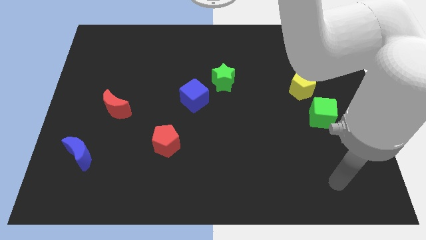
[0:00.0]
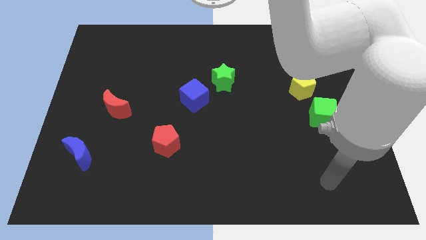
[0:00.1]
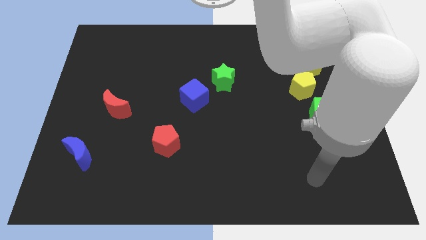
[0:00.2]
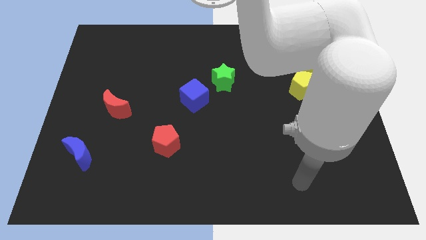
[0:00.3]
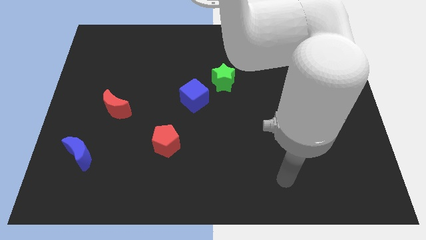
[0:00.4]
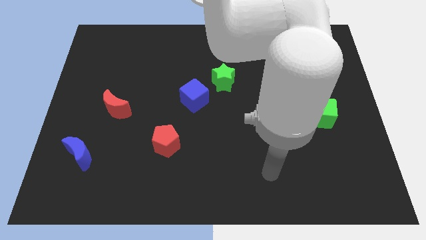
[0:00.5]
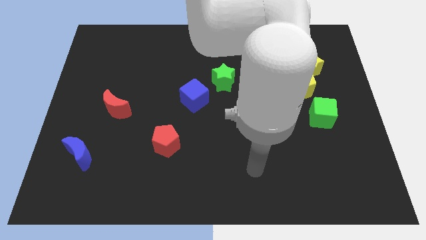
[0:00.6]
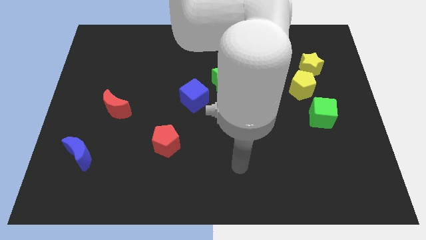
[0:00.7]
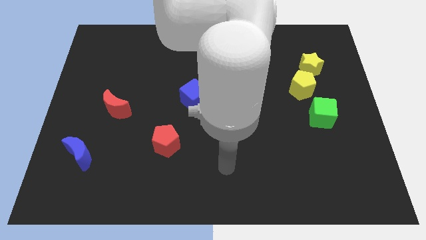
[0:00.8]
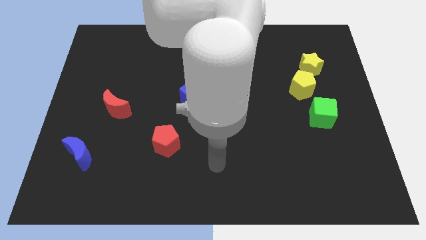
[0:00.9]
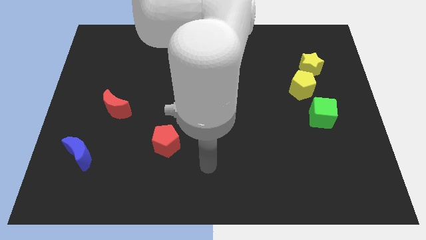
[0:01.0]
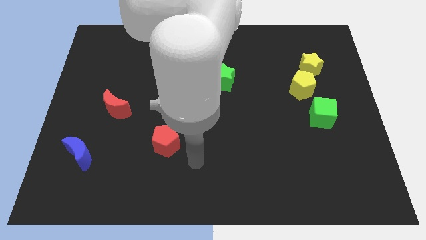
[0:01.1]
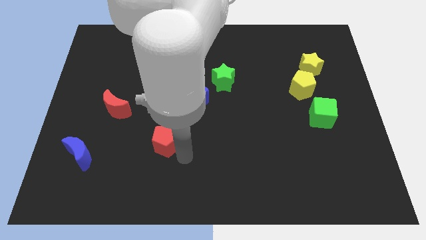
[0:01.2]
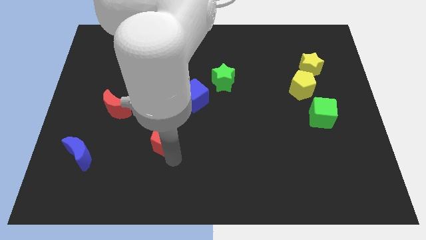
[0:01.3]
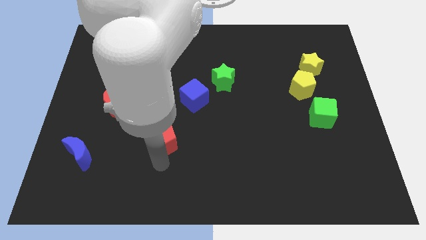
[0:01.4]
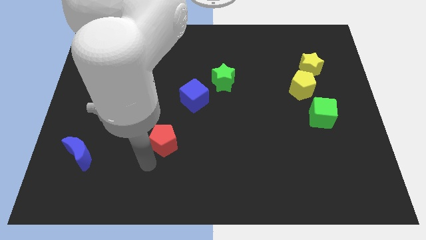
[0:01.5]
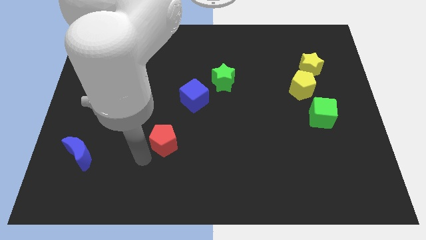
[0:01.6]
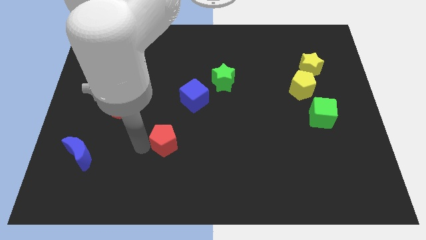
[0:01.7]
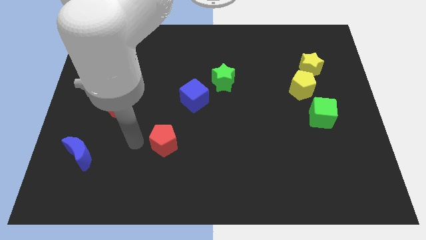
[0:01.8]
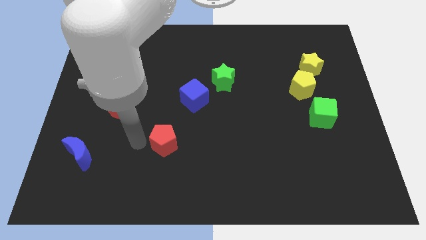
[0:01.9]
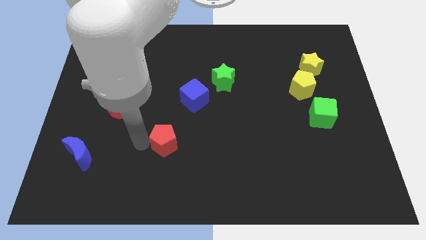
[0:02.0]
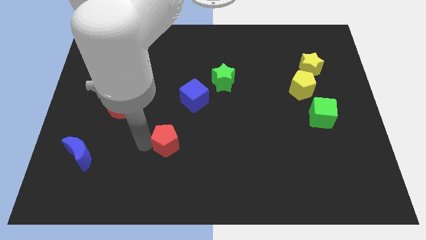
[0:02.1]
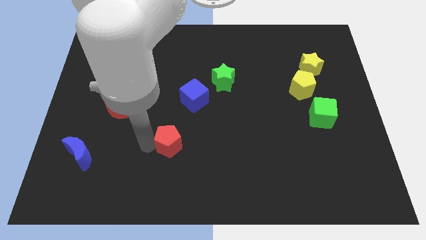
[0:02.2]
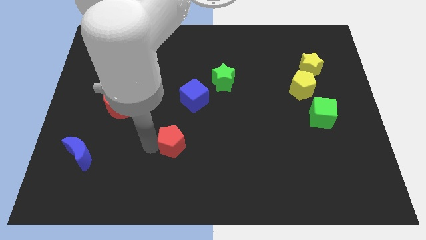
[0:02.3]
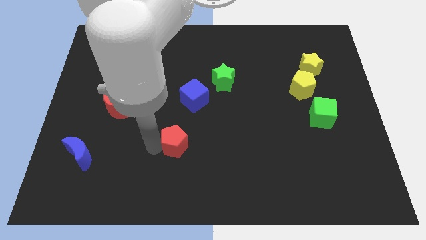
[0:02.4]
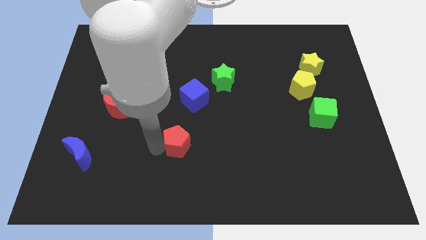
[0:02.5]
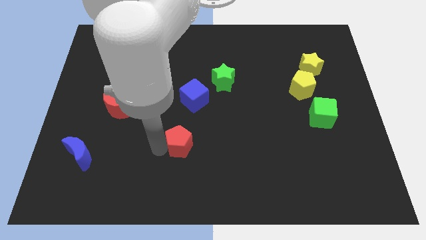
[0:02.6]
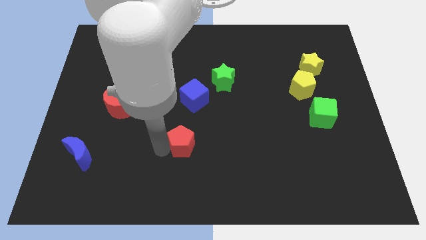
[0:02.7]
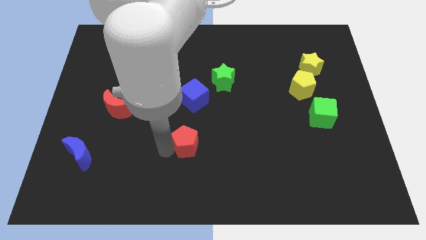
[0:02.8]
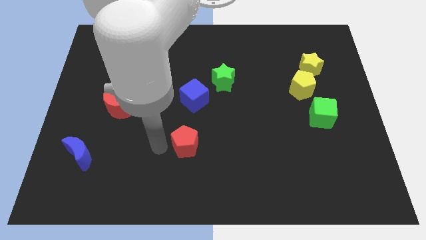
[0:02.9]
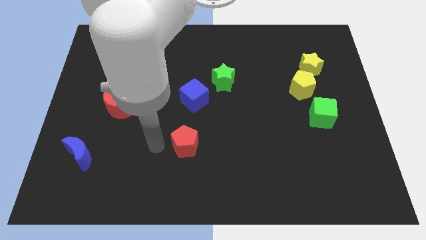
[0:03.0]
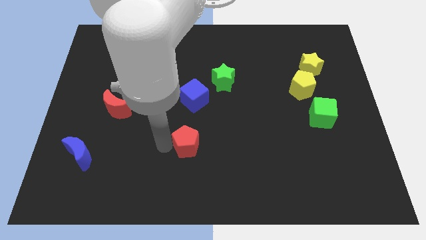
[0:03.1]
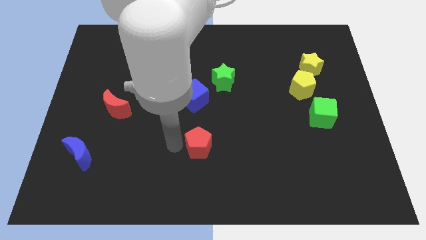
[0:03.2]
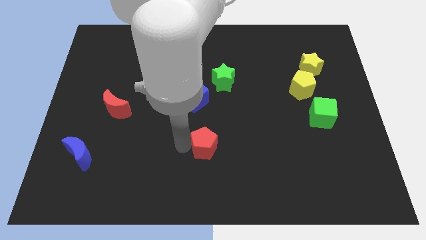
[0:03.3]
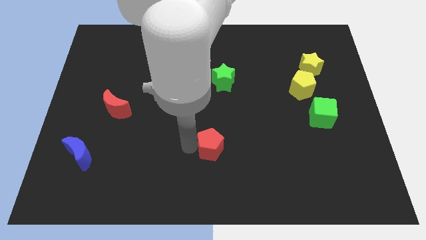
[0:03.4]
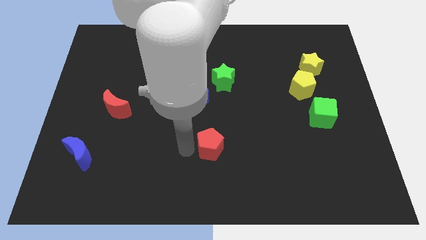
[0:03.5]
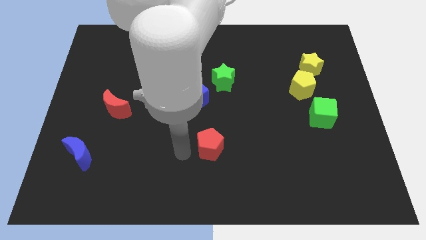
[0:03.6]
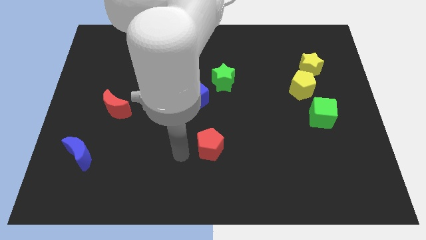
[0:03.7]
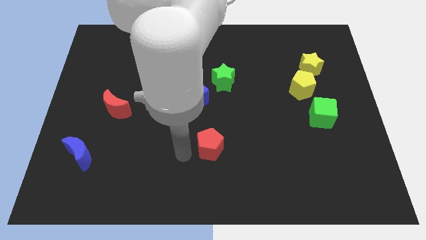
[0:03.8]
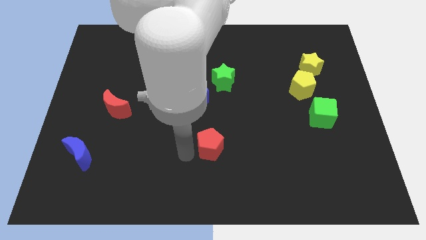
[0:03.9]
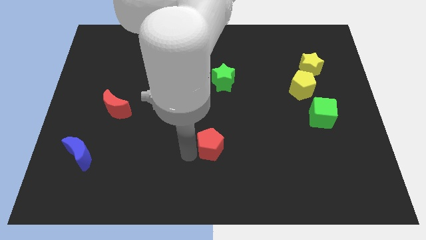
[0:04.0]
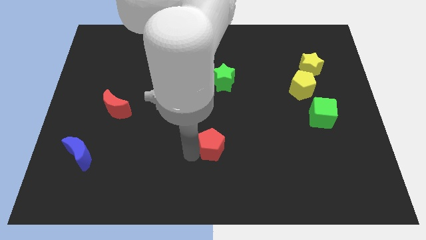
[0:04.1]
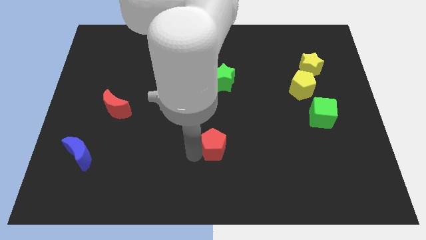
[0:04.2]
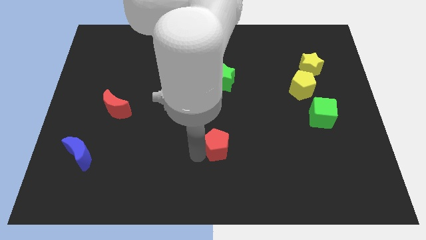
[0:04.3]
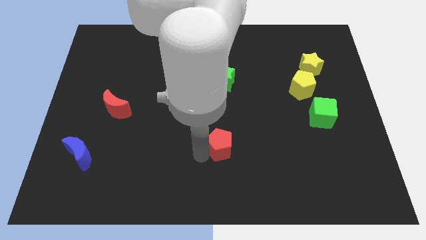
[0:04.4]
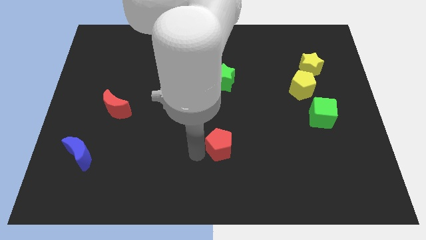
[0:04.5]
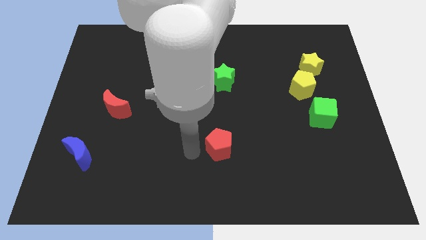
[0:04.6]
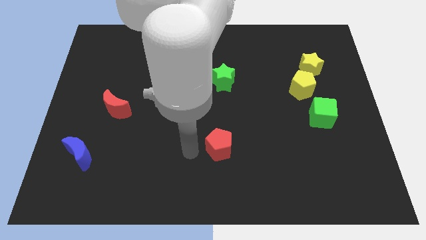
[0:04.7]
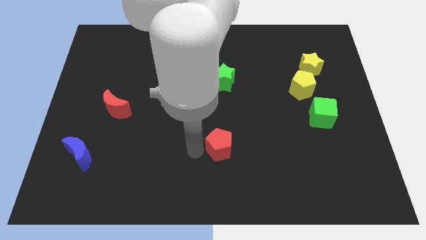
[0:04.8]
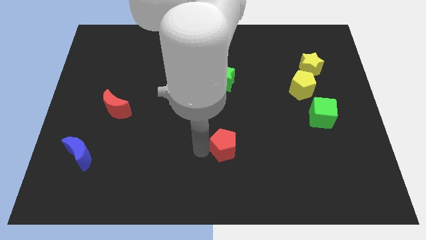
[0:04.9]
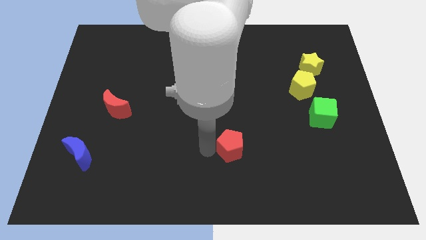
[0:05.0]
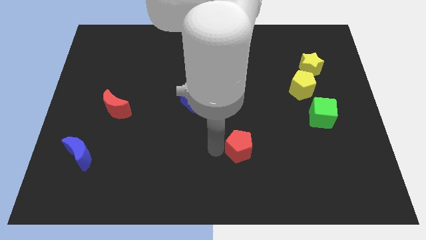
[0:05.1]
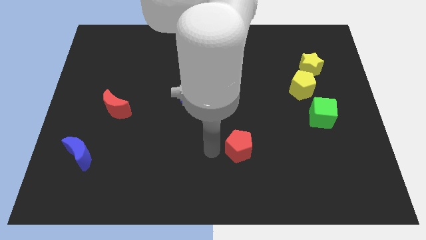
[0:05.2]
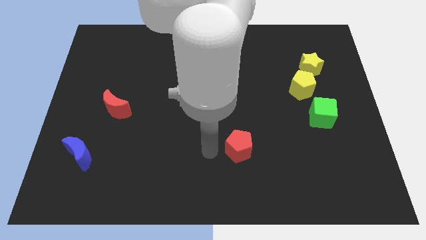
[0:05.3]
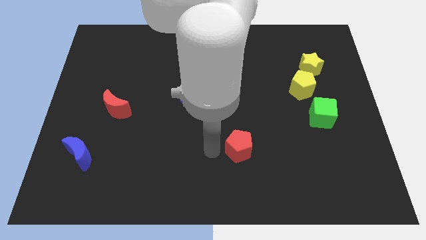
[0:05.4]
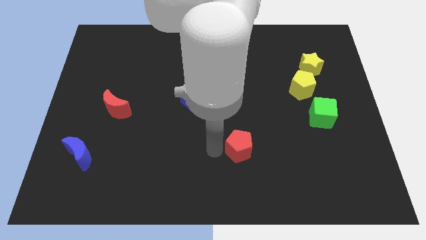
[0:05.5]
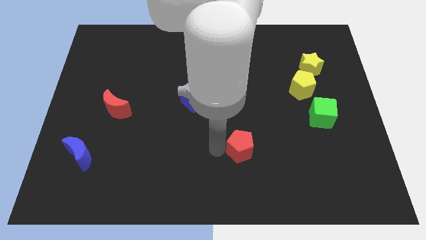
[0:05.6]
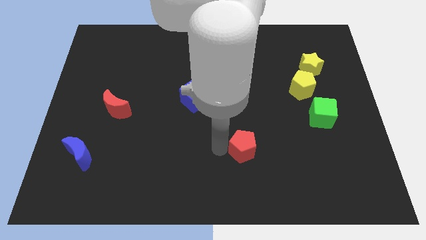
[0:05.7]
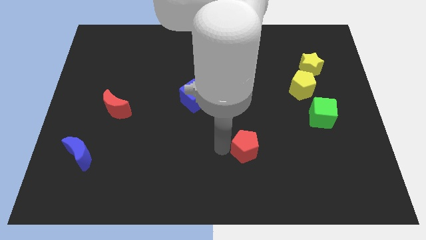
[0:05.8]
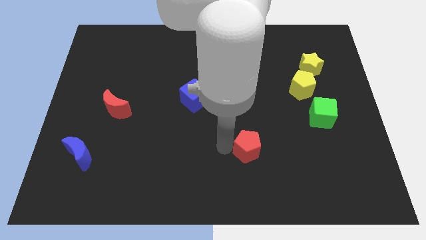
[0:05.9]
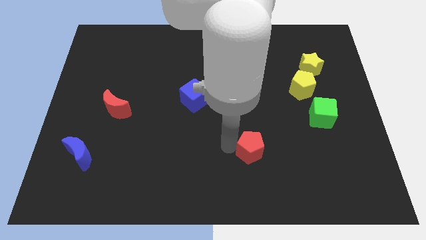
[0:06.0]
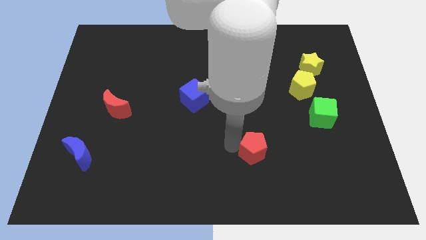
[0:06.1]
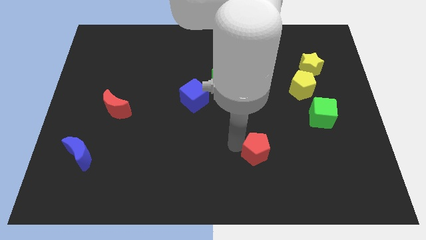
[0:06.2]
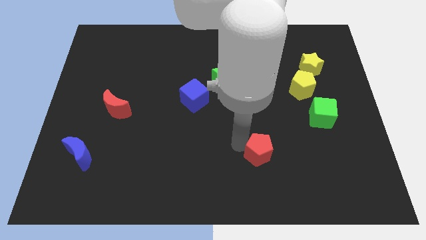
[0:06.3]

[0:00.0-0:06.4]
move the red pentagon to the right

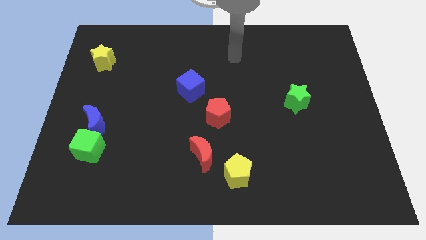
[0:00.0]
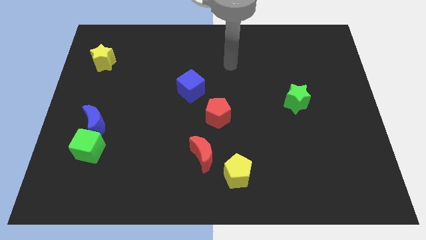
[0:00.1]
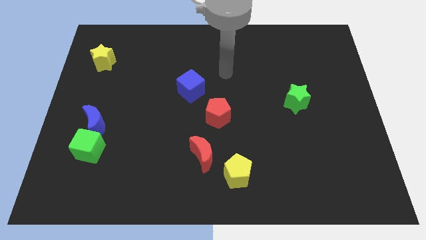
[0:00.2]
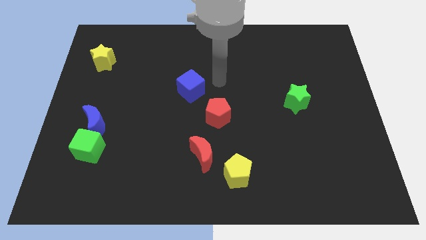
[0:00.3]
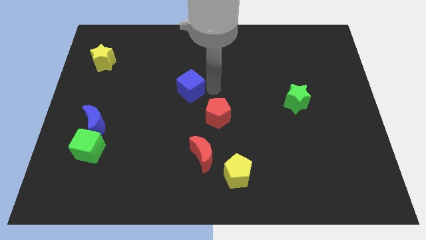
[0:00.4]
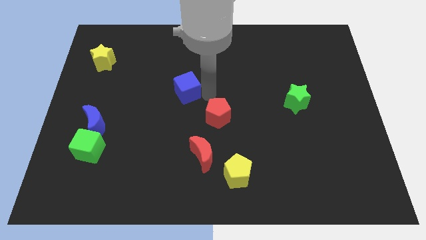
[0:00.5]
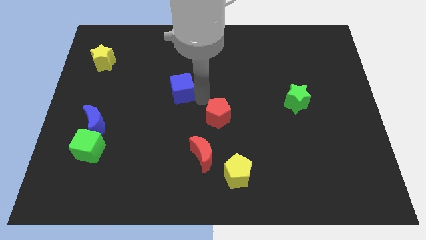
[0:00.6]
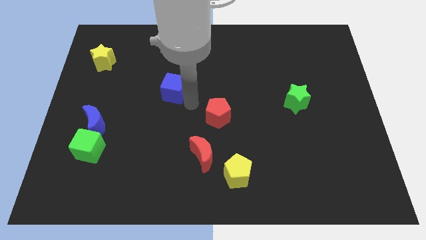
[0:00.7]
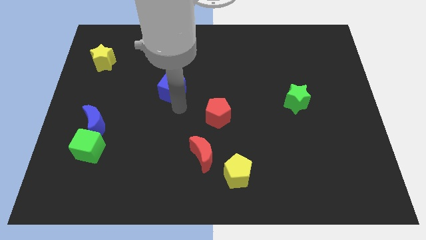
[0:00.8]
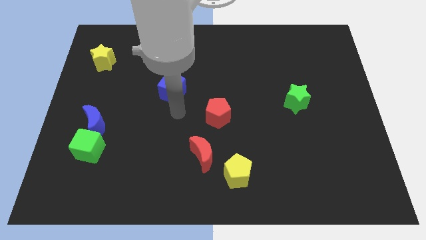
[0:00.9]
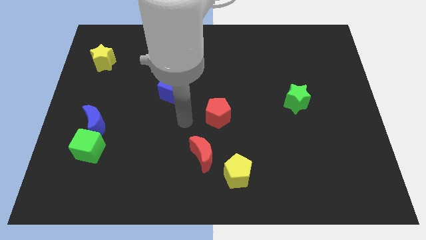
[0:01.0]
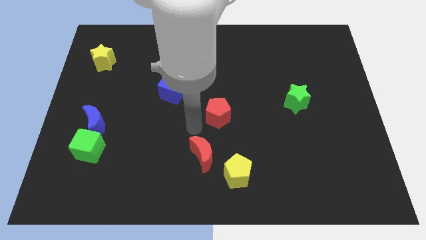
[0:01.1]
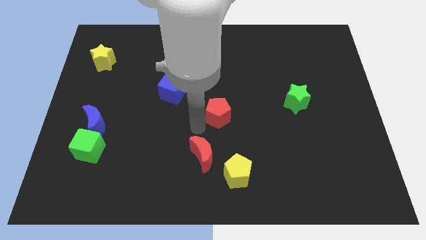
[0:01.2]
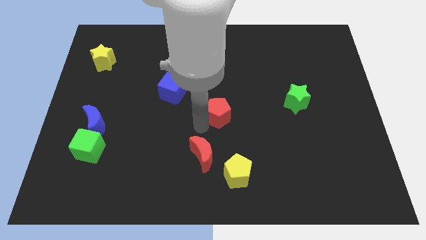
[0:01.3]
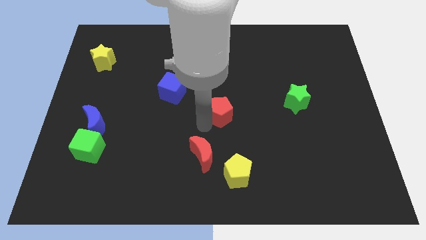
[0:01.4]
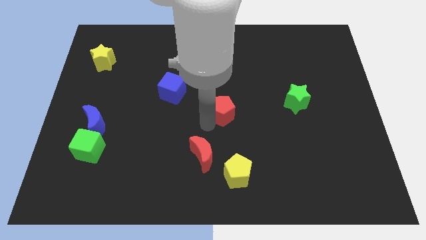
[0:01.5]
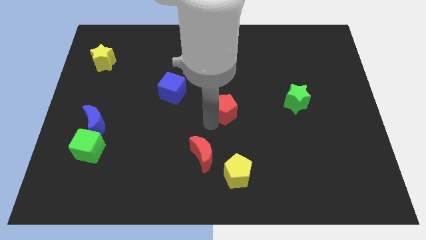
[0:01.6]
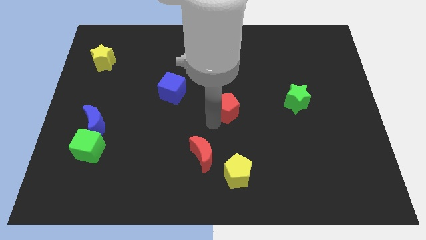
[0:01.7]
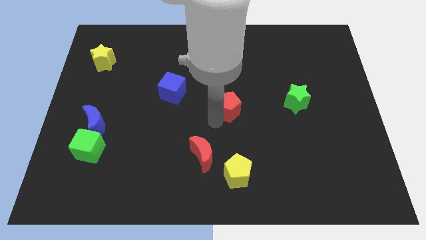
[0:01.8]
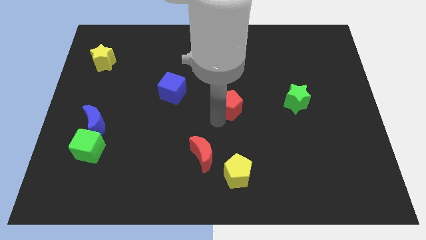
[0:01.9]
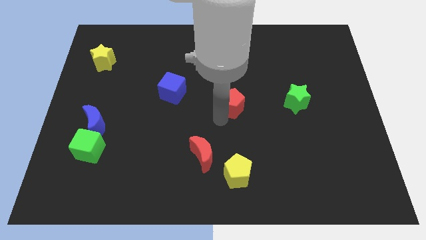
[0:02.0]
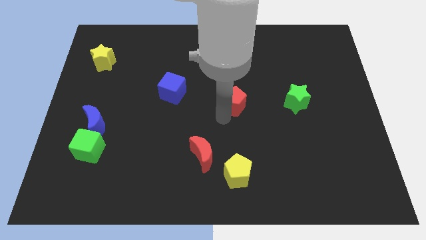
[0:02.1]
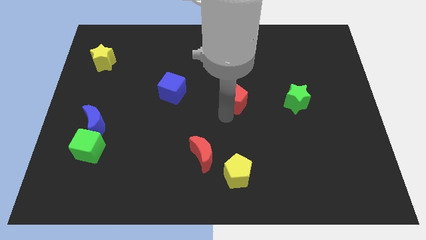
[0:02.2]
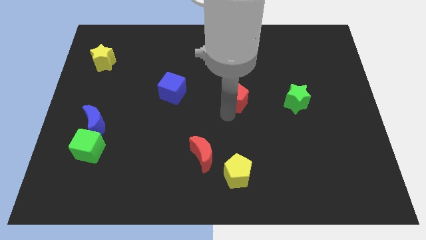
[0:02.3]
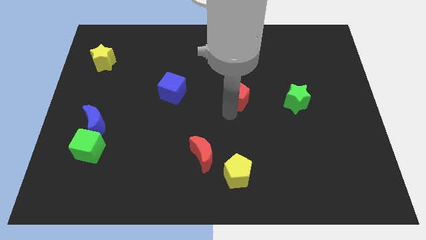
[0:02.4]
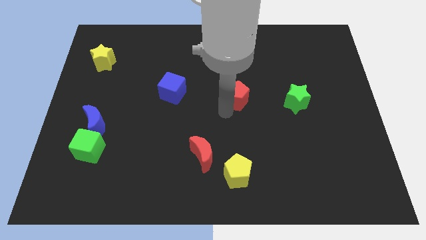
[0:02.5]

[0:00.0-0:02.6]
slightly slide the red pentagon upwards and then to the right
